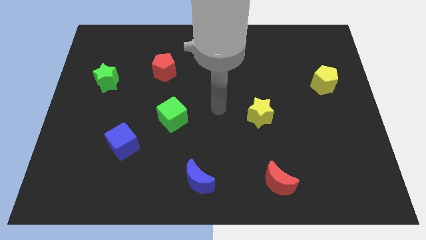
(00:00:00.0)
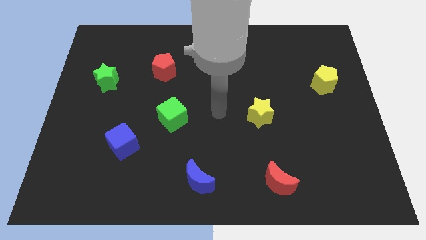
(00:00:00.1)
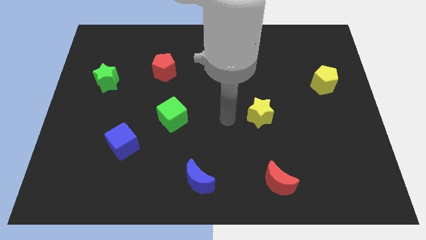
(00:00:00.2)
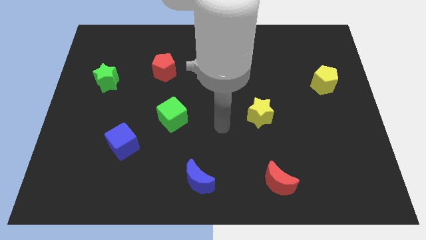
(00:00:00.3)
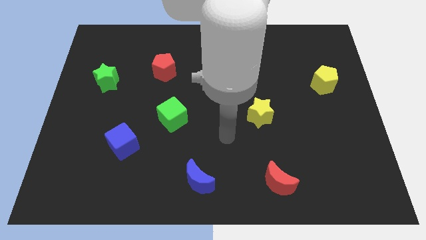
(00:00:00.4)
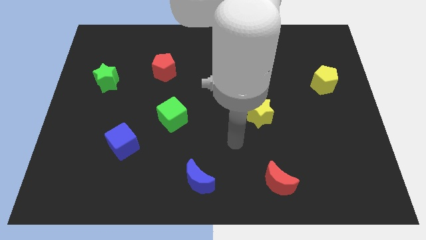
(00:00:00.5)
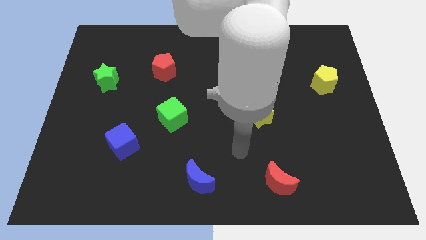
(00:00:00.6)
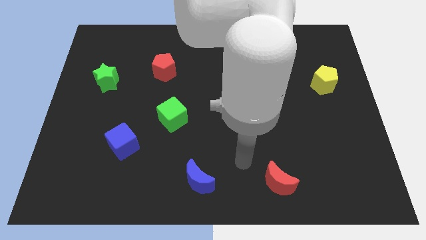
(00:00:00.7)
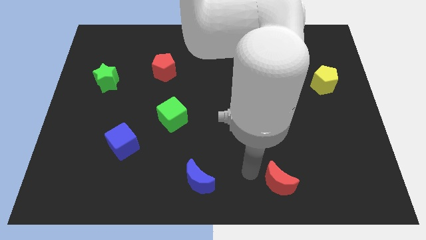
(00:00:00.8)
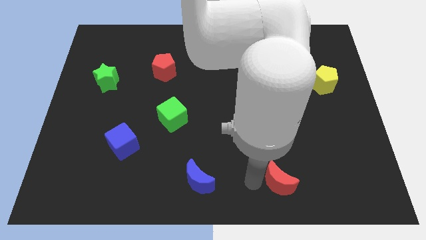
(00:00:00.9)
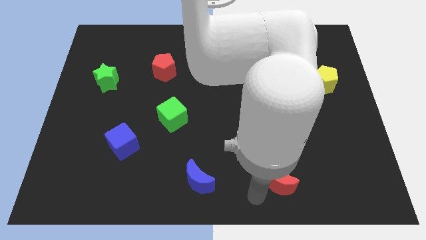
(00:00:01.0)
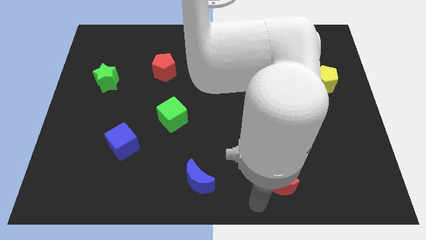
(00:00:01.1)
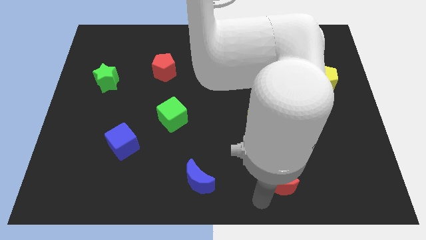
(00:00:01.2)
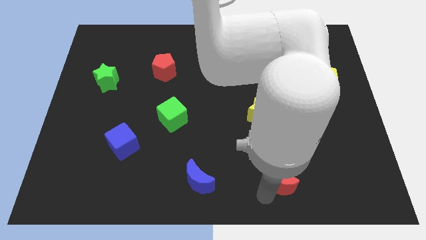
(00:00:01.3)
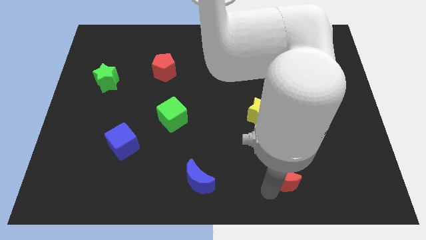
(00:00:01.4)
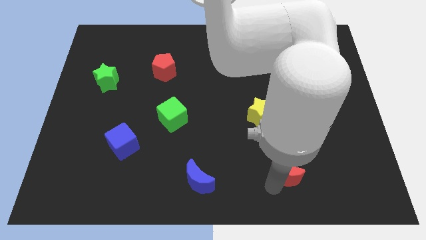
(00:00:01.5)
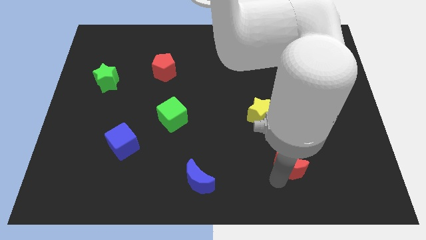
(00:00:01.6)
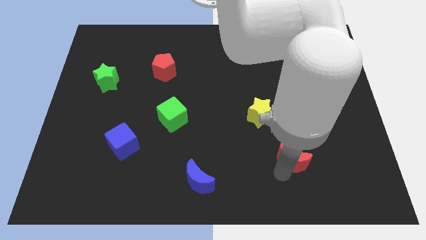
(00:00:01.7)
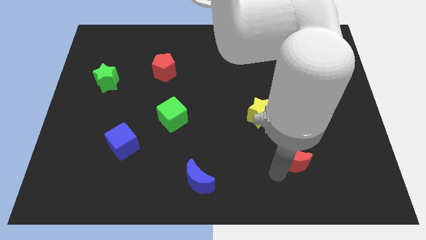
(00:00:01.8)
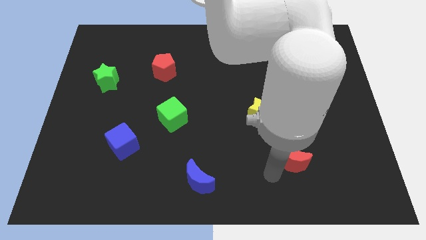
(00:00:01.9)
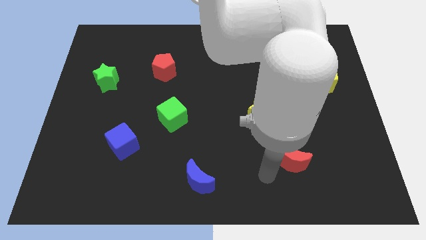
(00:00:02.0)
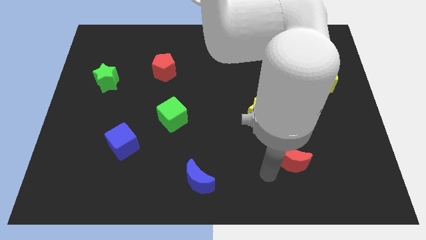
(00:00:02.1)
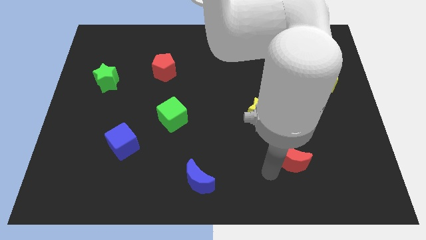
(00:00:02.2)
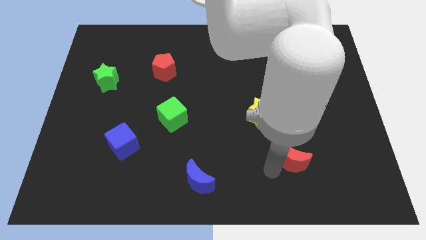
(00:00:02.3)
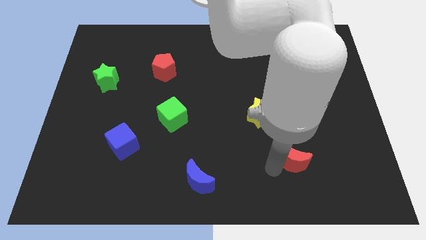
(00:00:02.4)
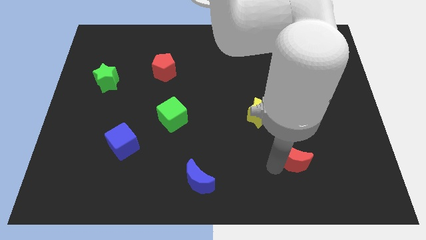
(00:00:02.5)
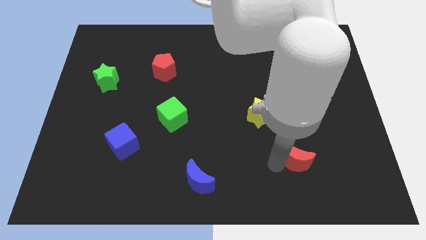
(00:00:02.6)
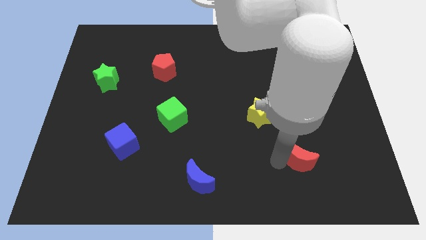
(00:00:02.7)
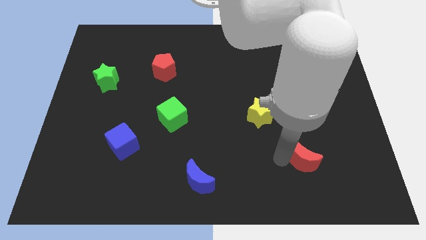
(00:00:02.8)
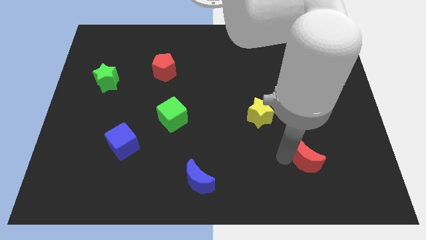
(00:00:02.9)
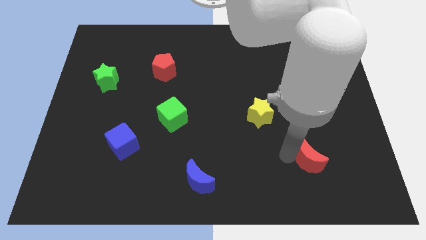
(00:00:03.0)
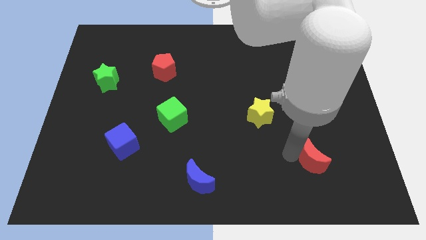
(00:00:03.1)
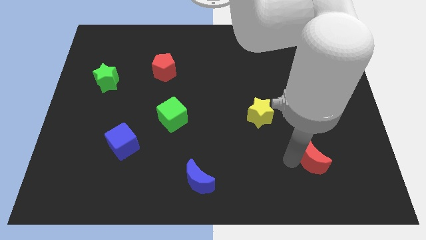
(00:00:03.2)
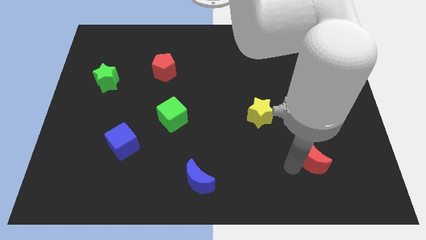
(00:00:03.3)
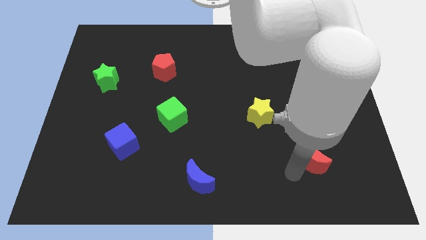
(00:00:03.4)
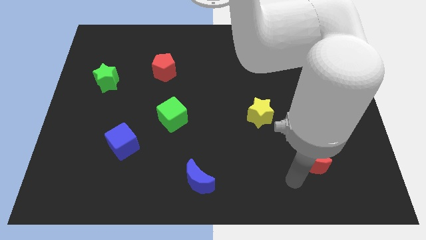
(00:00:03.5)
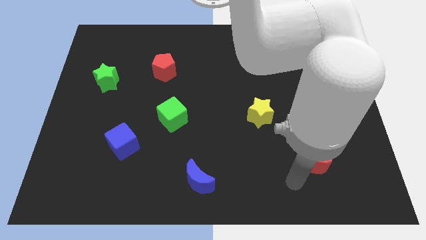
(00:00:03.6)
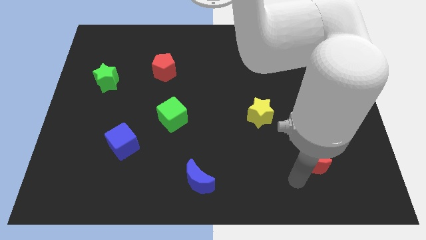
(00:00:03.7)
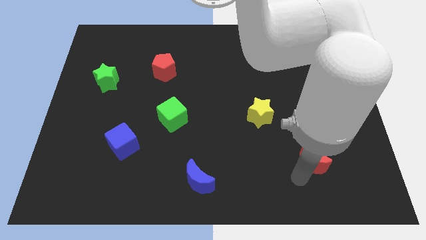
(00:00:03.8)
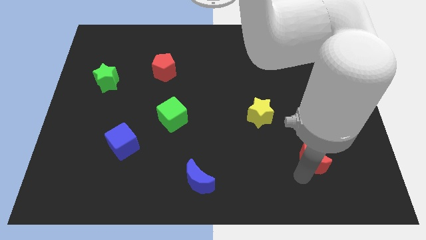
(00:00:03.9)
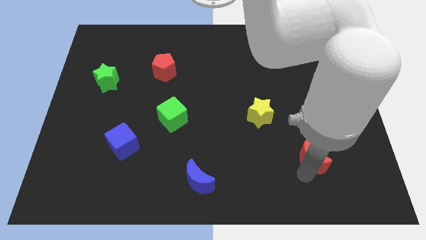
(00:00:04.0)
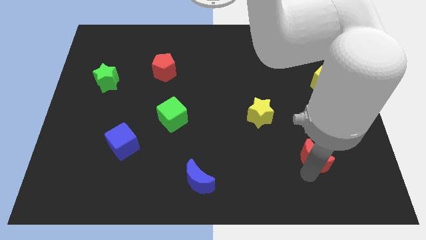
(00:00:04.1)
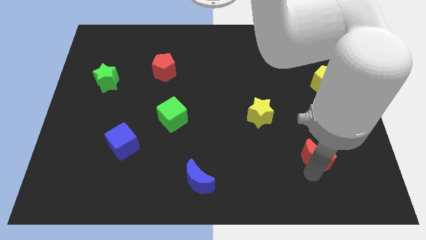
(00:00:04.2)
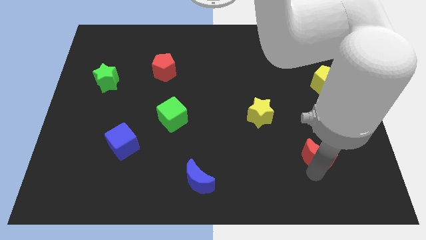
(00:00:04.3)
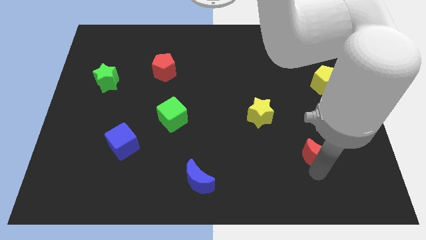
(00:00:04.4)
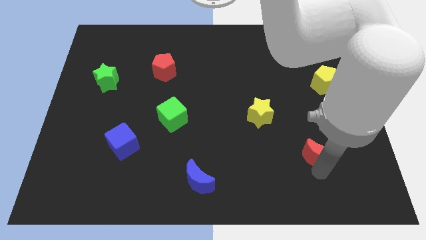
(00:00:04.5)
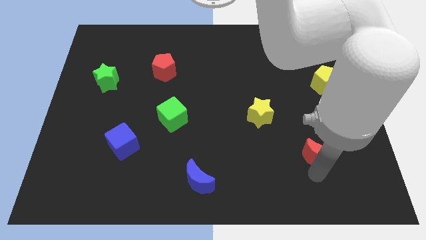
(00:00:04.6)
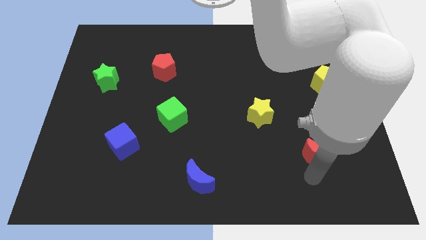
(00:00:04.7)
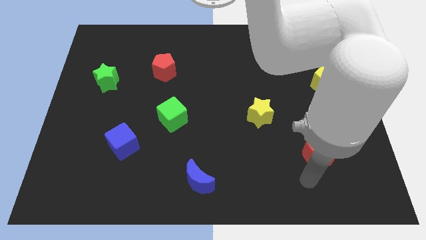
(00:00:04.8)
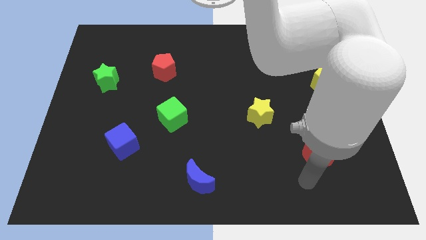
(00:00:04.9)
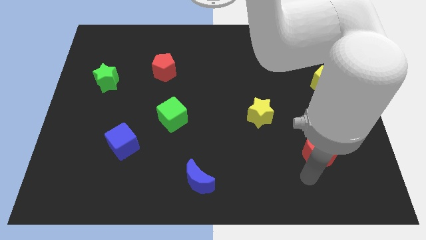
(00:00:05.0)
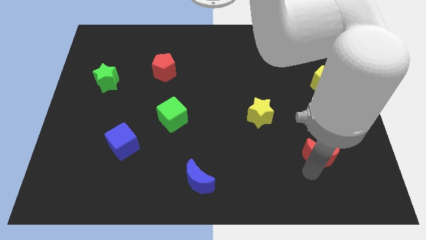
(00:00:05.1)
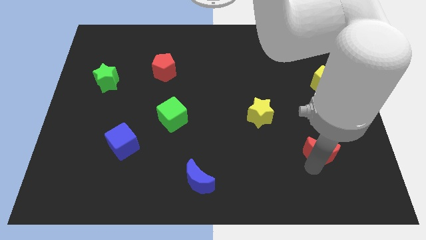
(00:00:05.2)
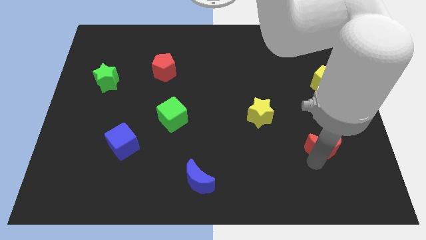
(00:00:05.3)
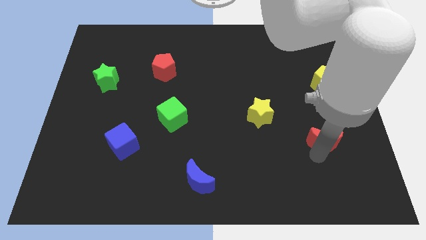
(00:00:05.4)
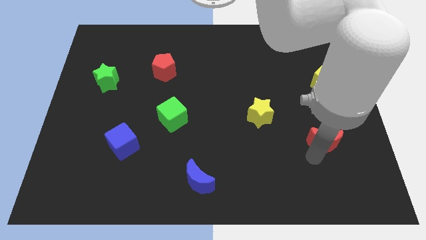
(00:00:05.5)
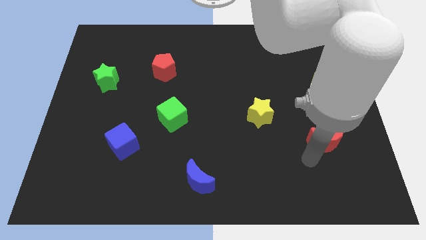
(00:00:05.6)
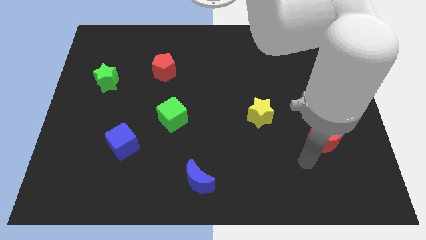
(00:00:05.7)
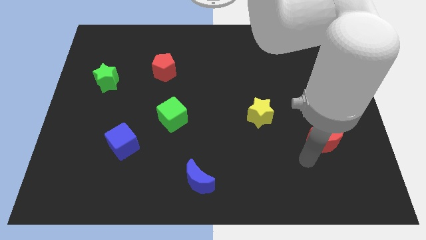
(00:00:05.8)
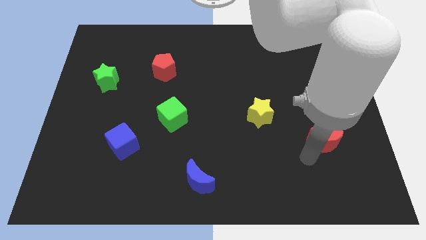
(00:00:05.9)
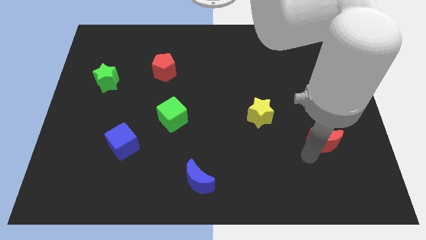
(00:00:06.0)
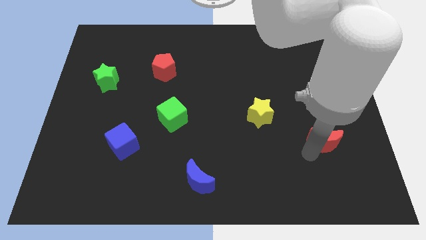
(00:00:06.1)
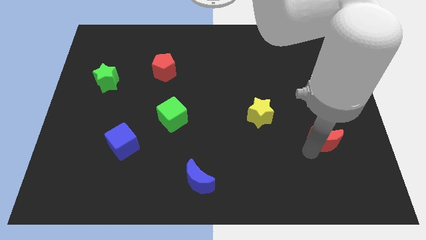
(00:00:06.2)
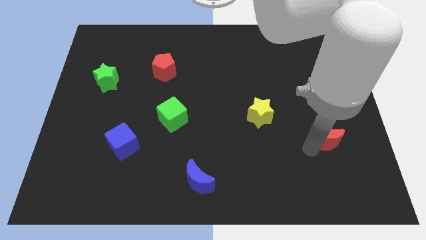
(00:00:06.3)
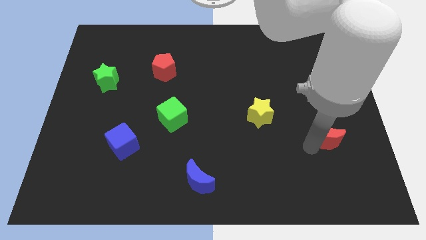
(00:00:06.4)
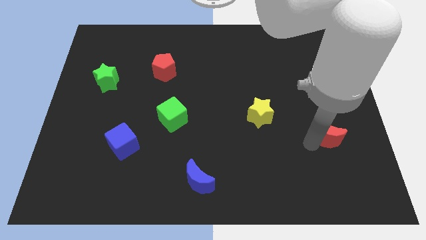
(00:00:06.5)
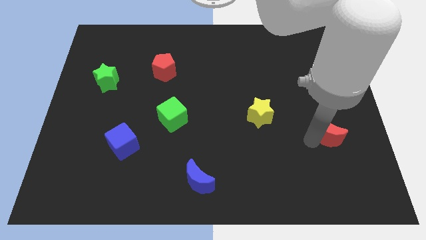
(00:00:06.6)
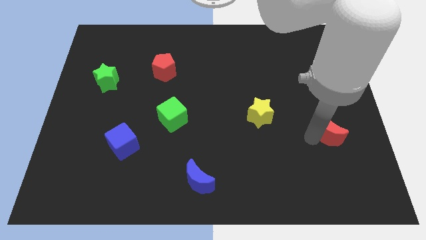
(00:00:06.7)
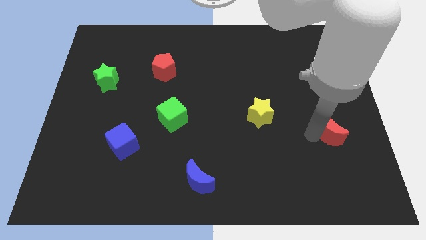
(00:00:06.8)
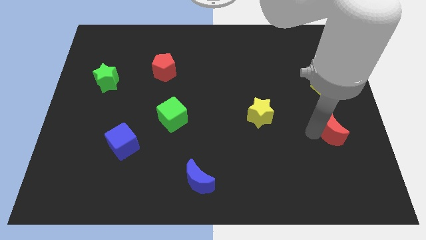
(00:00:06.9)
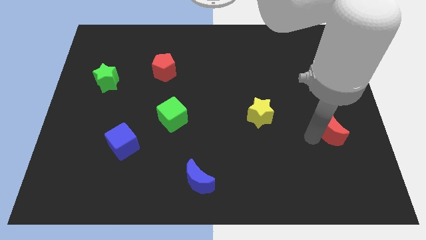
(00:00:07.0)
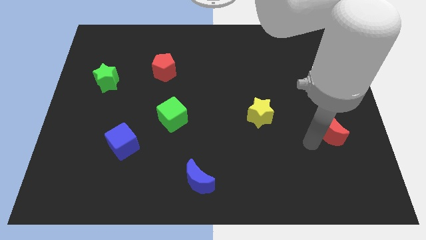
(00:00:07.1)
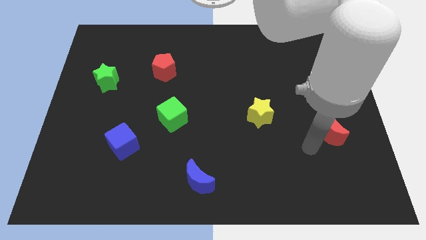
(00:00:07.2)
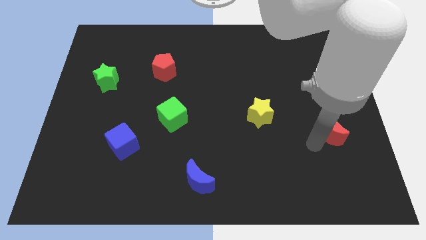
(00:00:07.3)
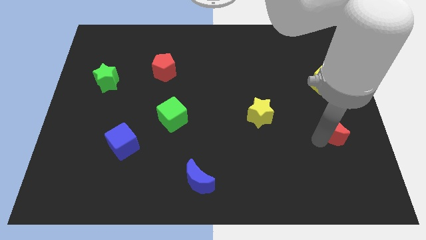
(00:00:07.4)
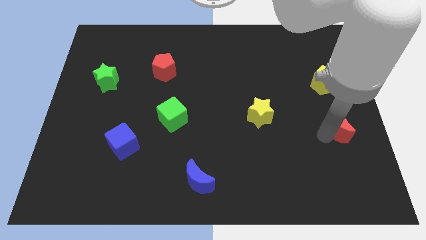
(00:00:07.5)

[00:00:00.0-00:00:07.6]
put the red moon to the right side of the board
